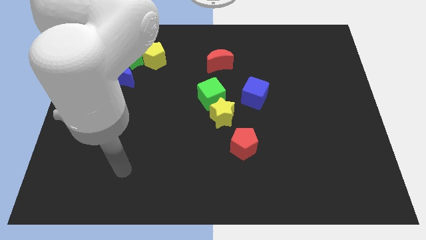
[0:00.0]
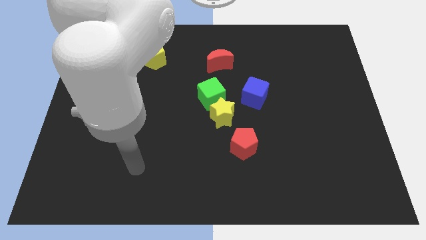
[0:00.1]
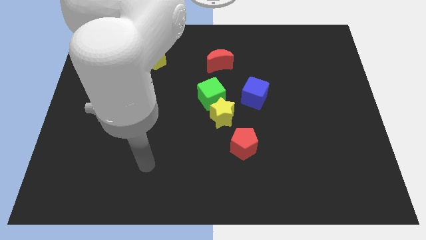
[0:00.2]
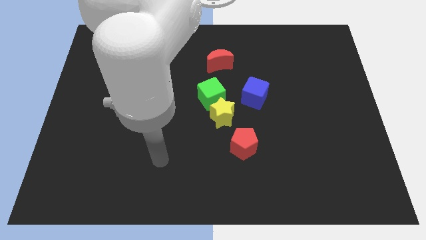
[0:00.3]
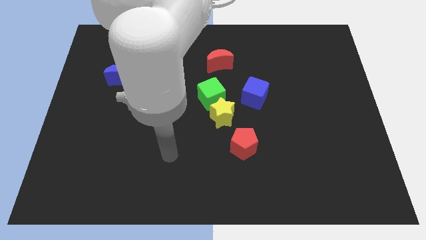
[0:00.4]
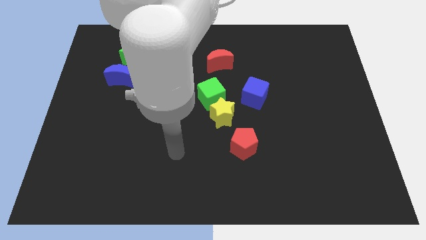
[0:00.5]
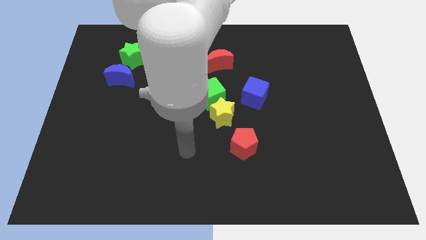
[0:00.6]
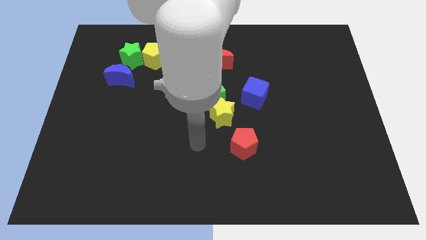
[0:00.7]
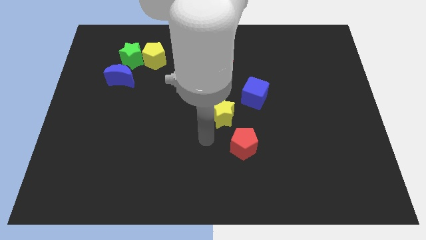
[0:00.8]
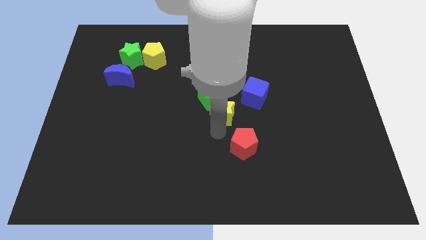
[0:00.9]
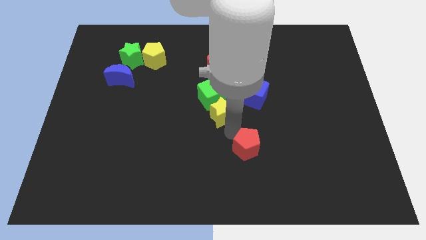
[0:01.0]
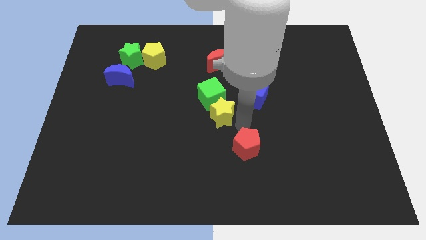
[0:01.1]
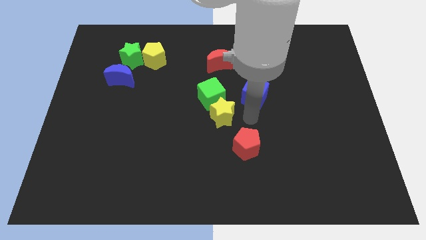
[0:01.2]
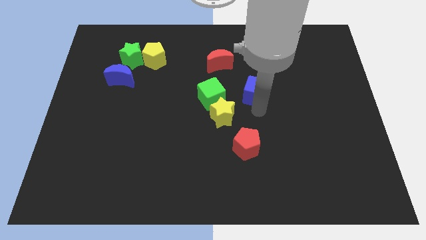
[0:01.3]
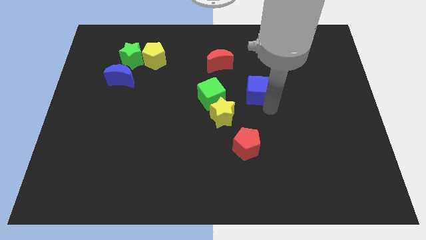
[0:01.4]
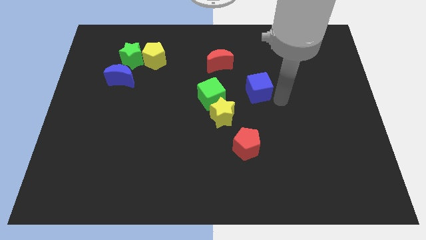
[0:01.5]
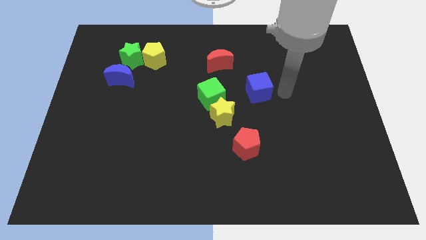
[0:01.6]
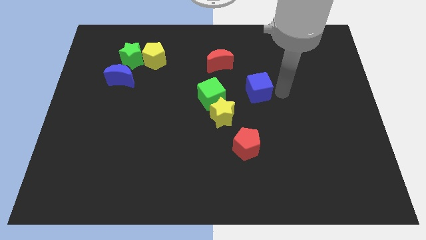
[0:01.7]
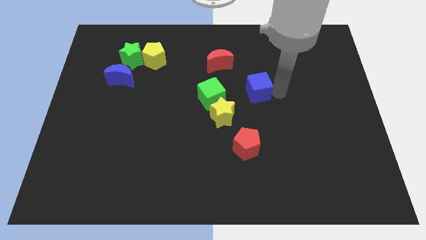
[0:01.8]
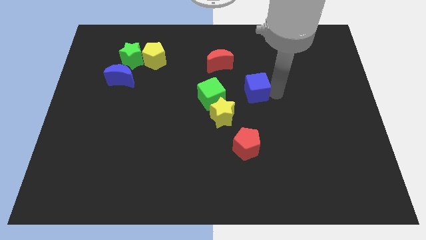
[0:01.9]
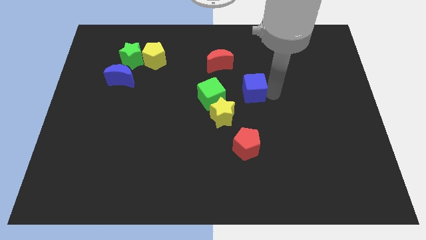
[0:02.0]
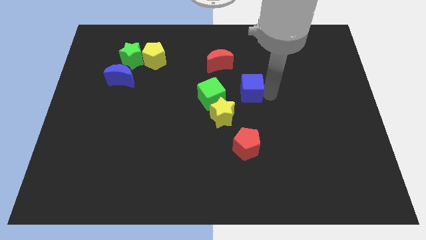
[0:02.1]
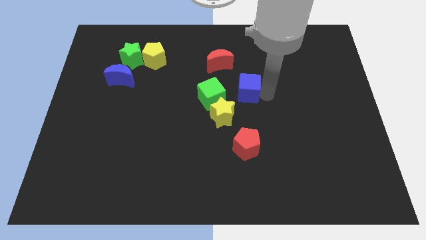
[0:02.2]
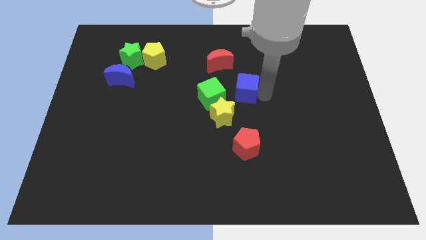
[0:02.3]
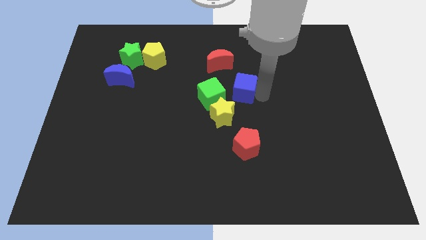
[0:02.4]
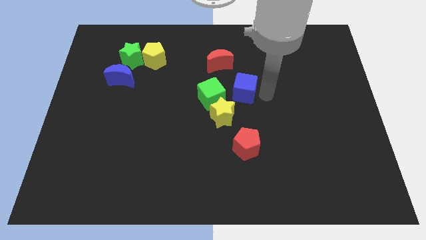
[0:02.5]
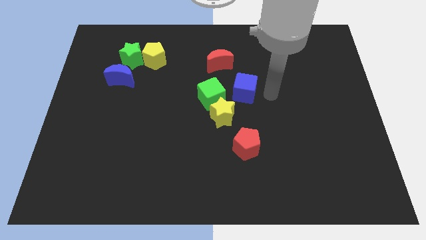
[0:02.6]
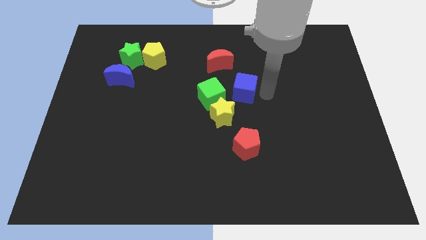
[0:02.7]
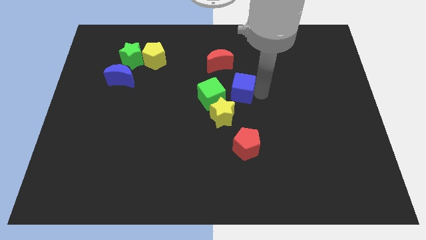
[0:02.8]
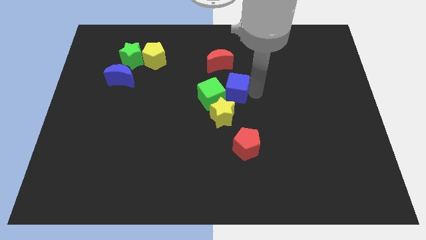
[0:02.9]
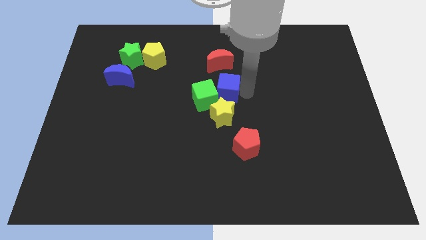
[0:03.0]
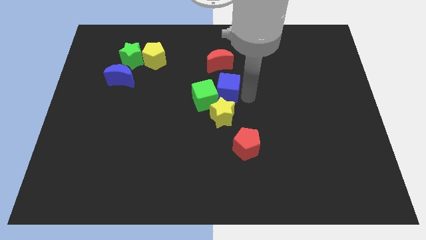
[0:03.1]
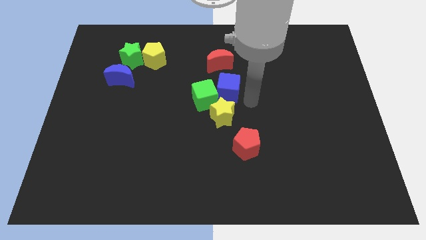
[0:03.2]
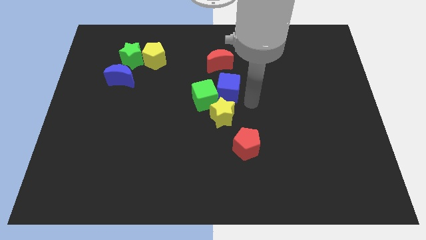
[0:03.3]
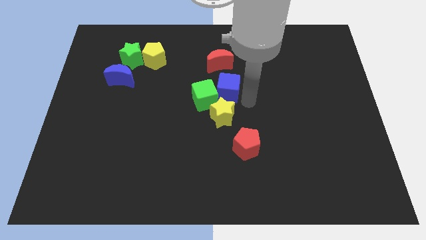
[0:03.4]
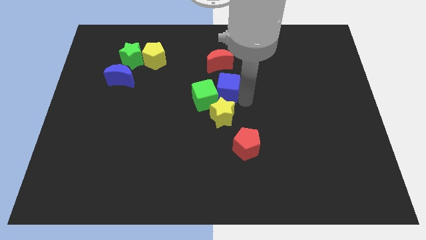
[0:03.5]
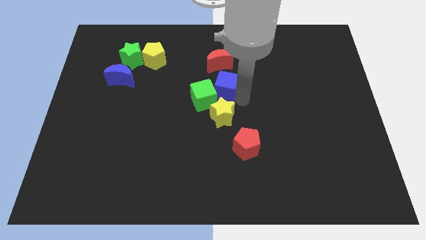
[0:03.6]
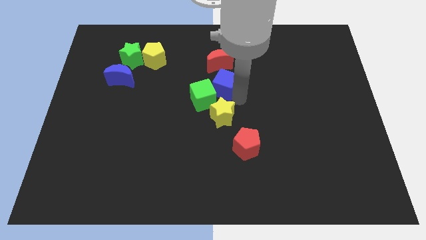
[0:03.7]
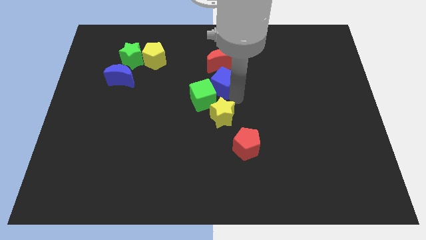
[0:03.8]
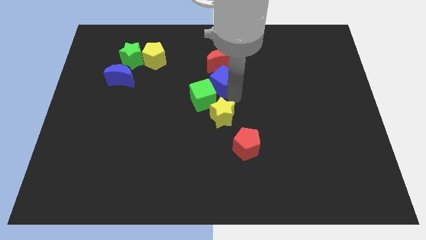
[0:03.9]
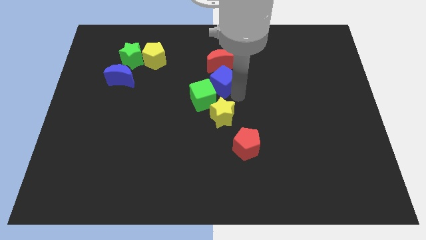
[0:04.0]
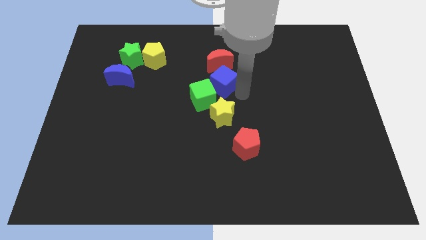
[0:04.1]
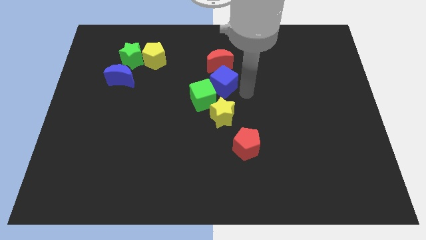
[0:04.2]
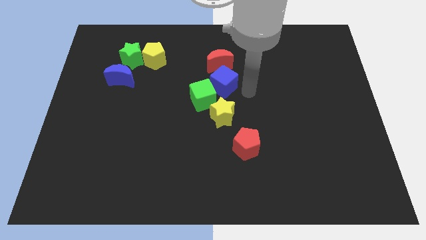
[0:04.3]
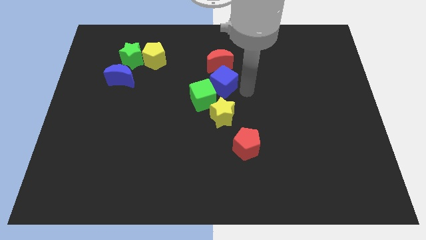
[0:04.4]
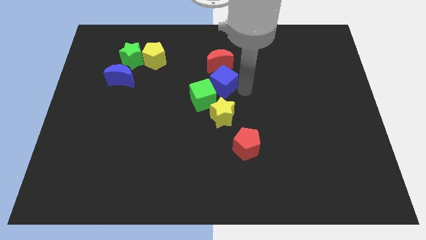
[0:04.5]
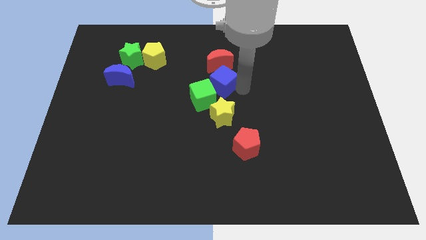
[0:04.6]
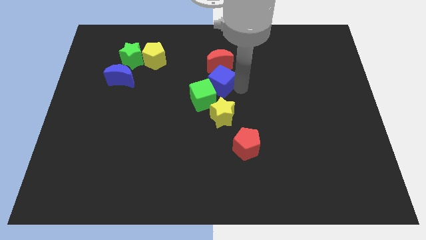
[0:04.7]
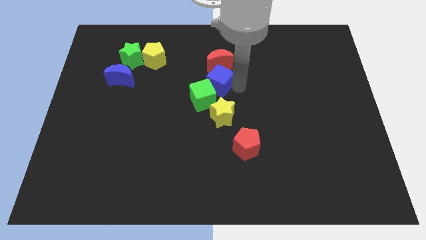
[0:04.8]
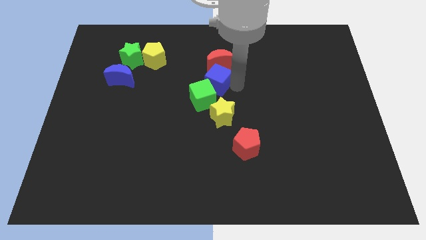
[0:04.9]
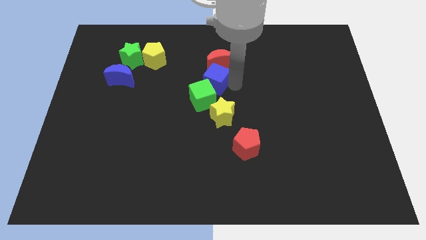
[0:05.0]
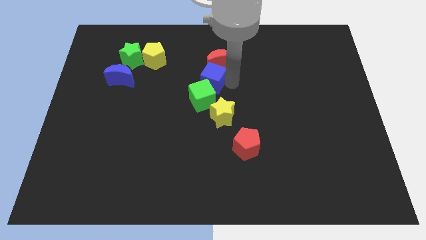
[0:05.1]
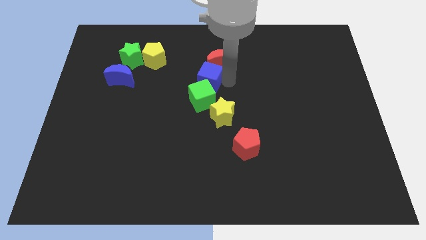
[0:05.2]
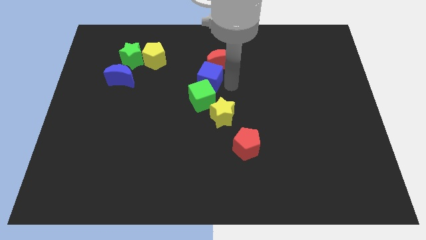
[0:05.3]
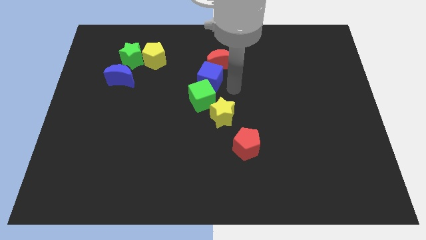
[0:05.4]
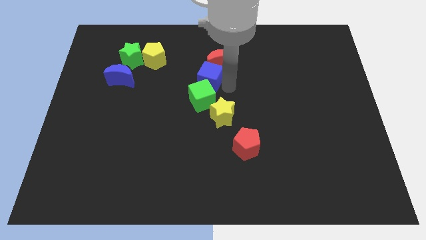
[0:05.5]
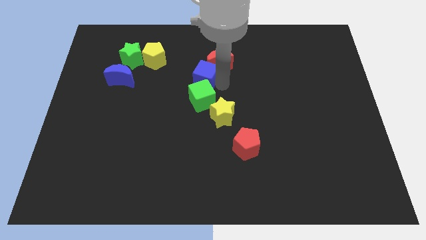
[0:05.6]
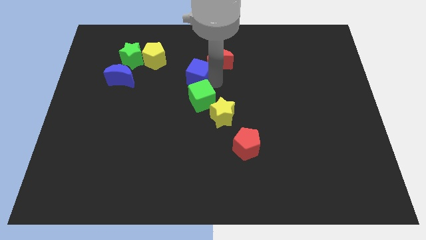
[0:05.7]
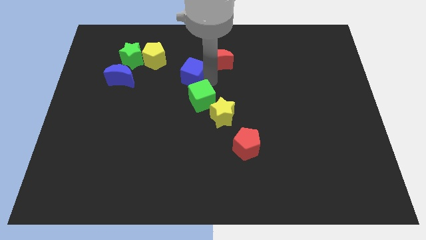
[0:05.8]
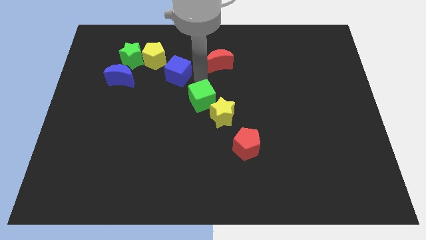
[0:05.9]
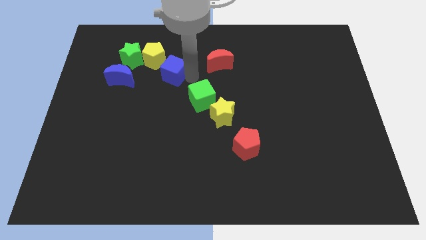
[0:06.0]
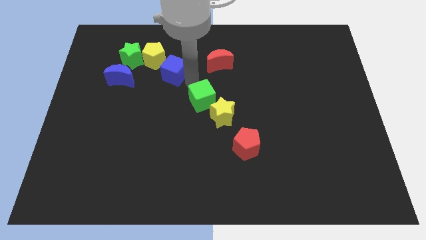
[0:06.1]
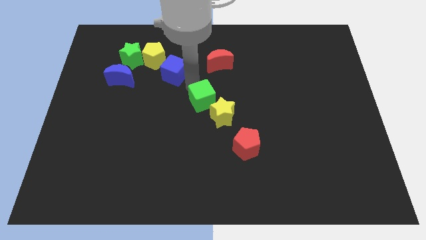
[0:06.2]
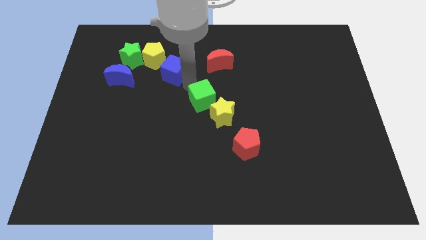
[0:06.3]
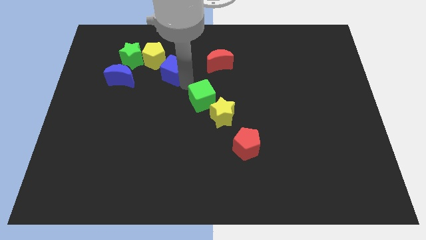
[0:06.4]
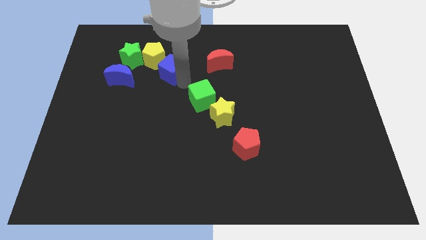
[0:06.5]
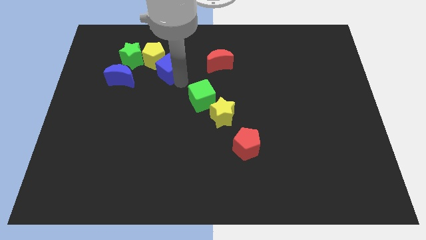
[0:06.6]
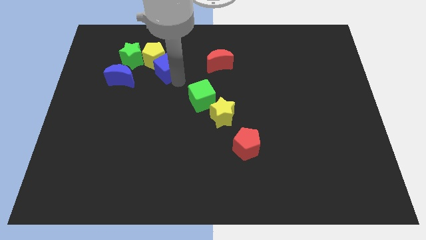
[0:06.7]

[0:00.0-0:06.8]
move the blue cube towards the yellow pentagon
